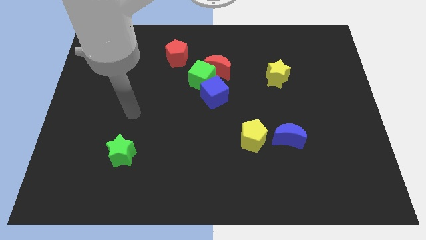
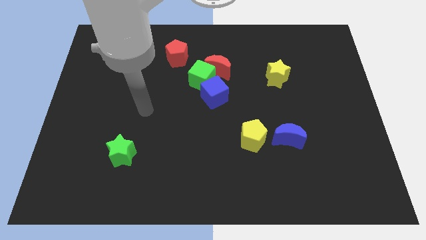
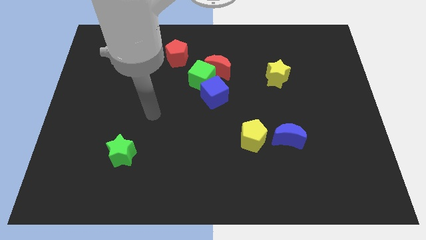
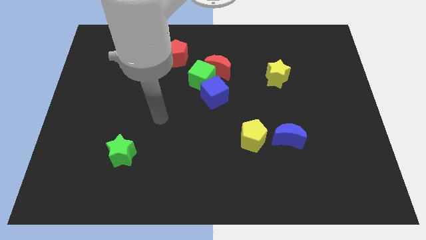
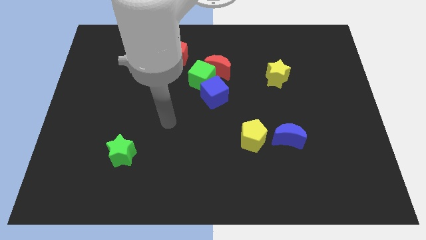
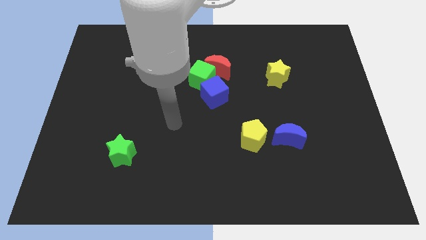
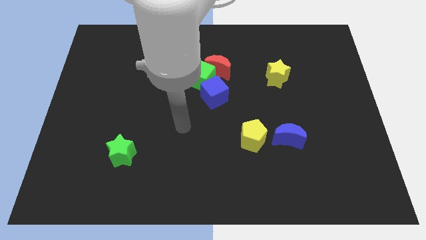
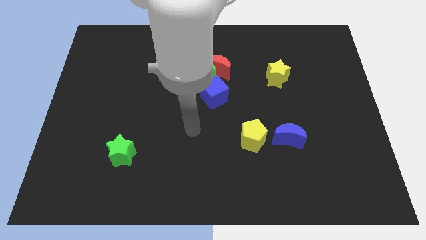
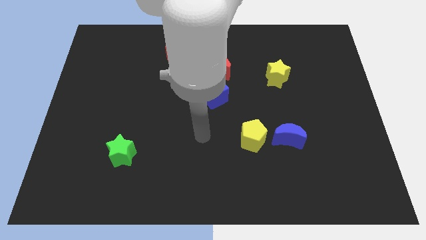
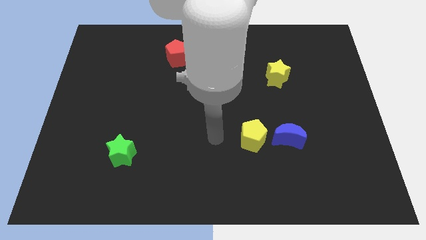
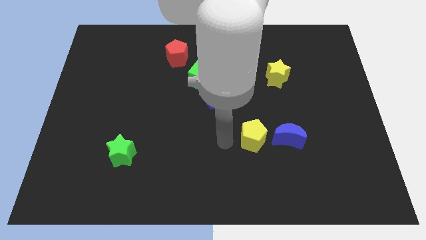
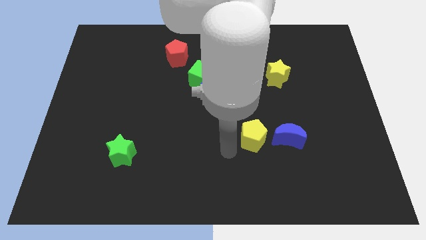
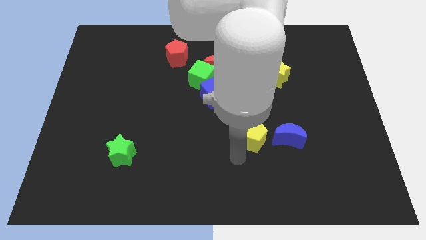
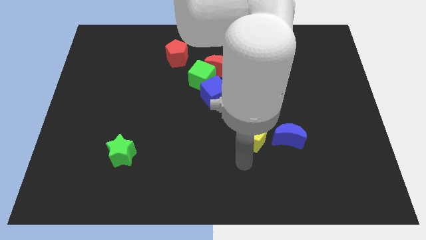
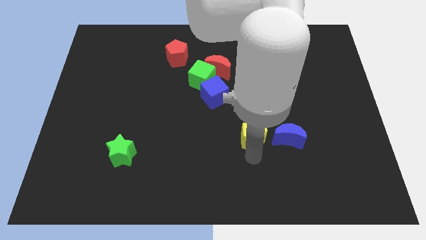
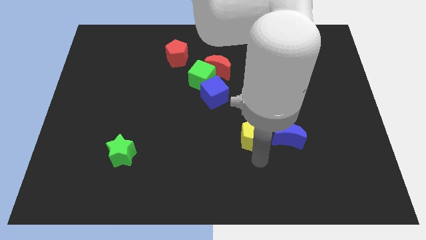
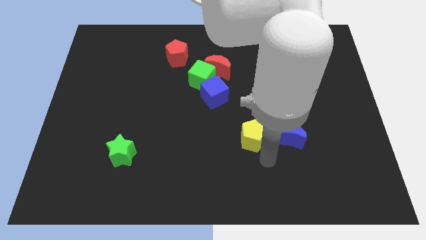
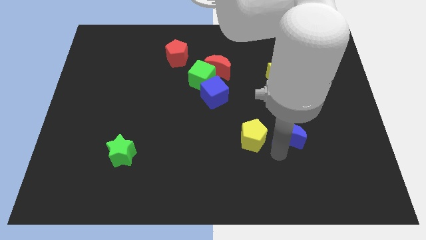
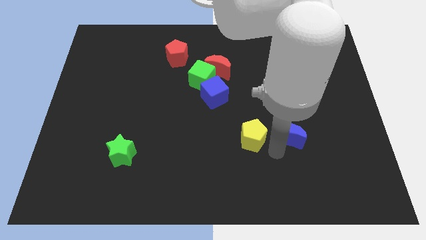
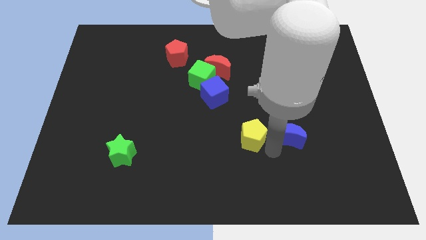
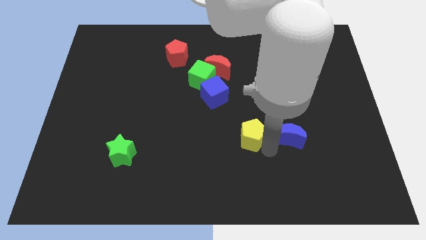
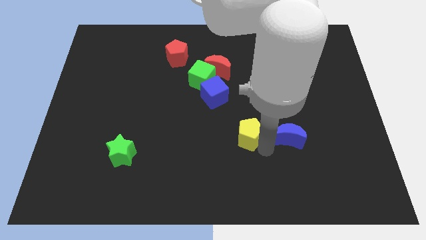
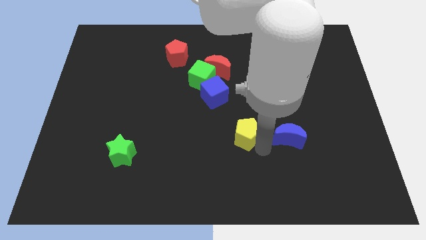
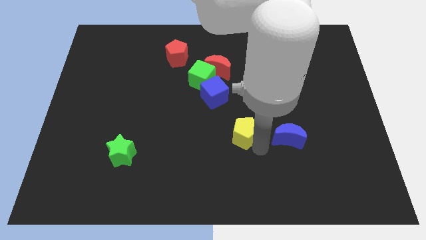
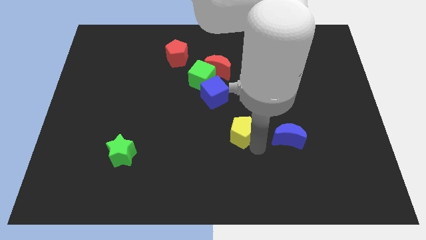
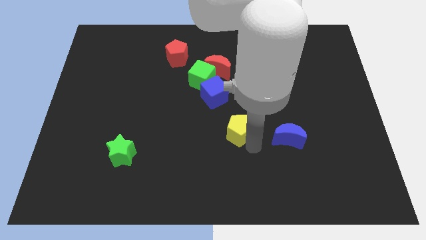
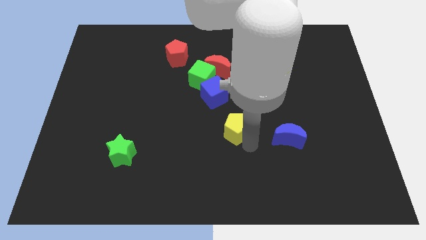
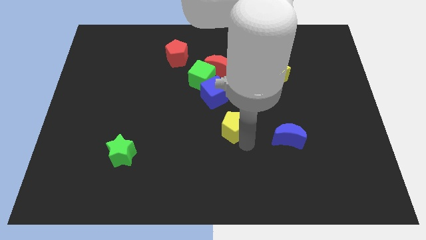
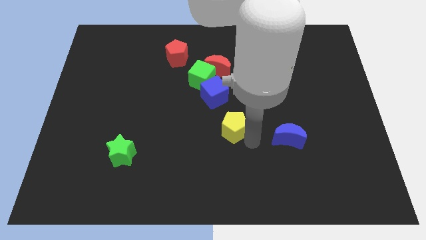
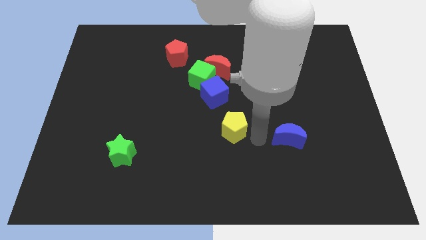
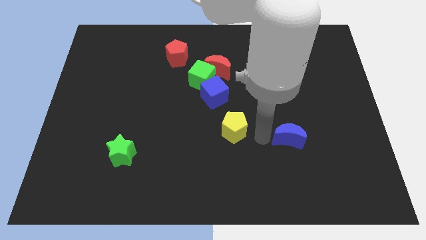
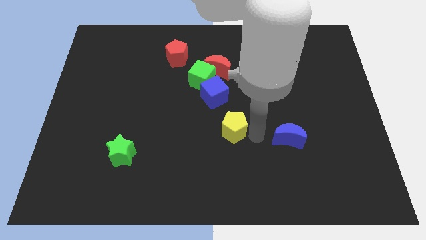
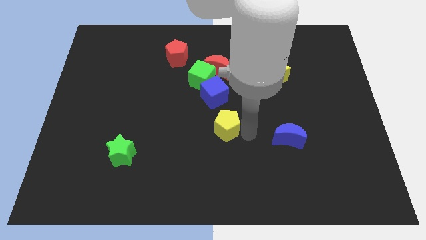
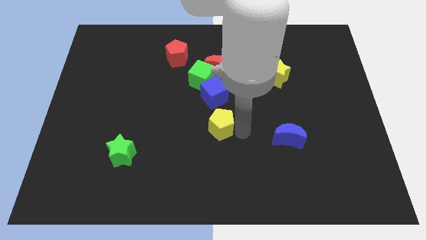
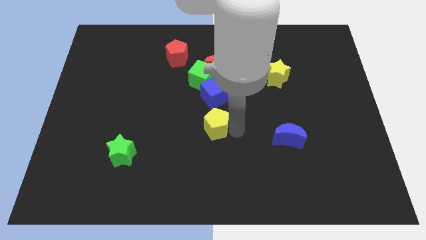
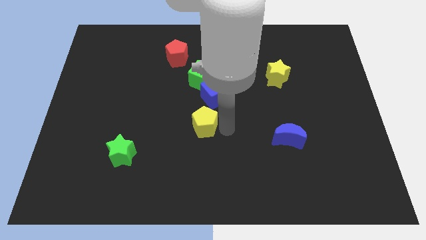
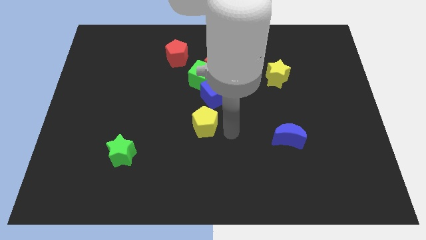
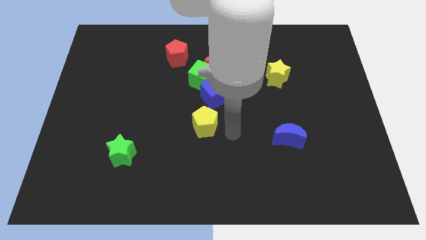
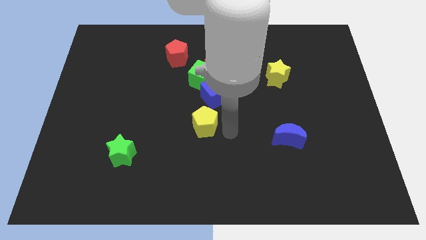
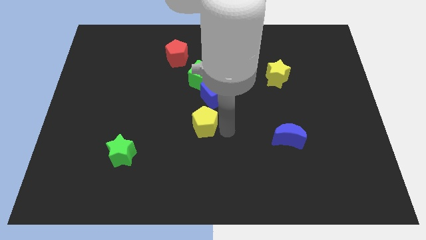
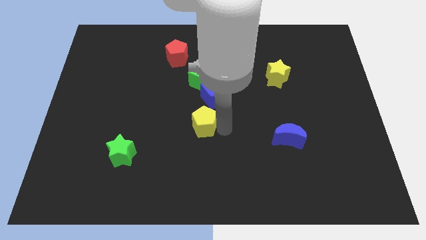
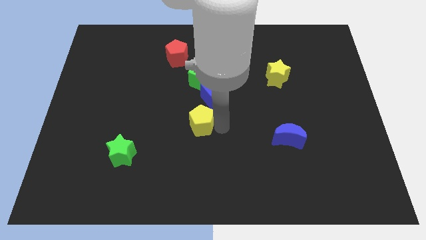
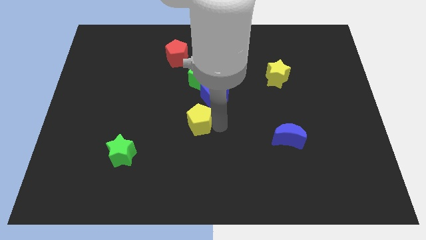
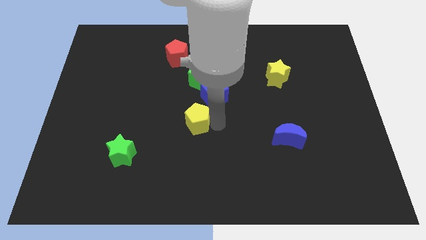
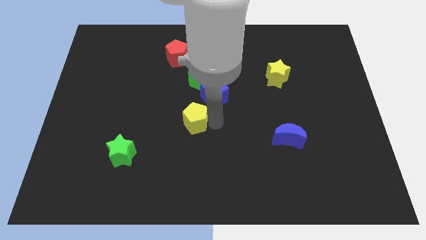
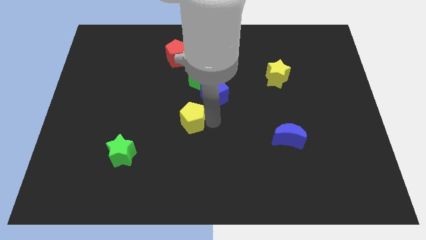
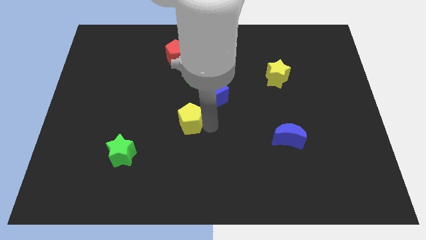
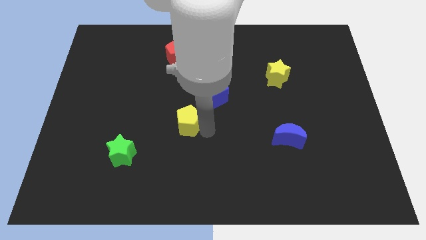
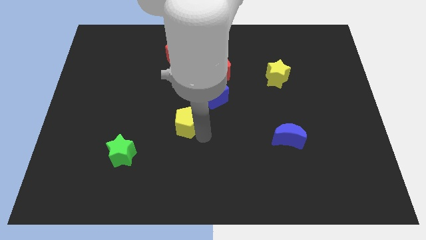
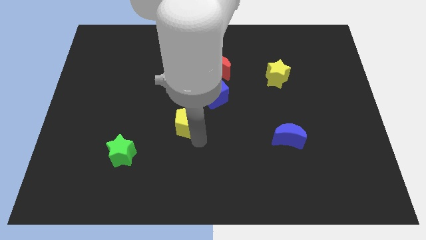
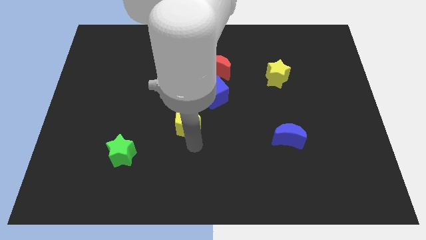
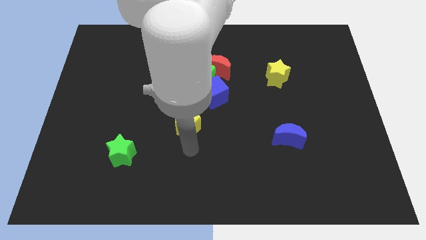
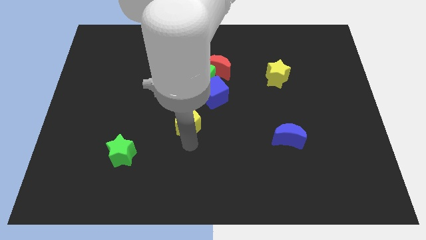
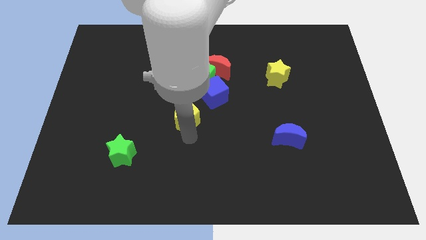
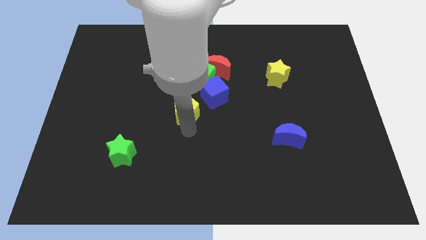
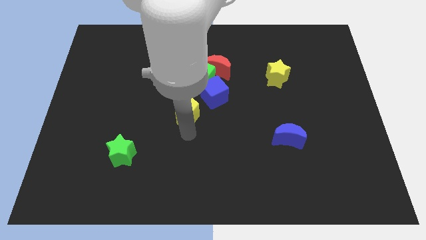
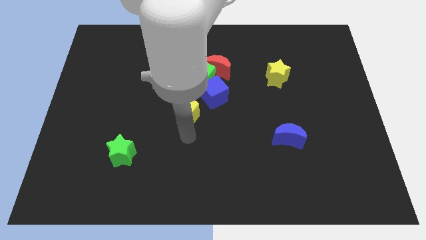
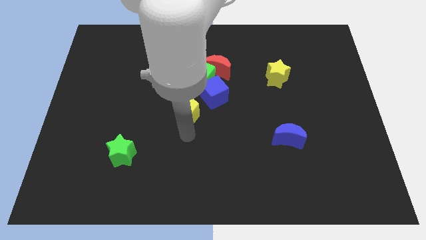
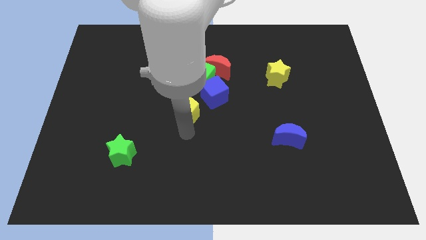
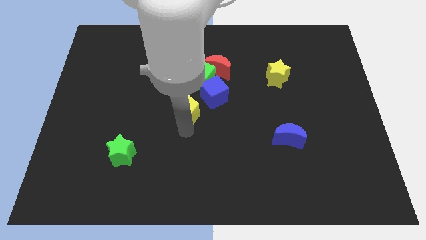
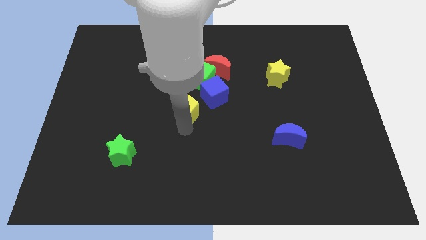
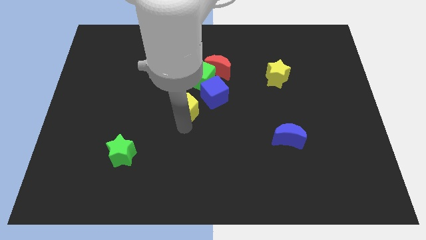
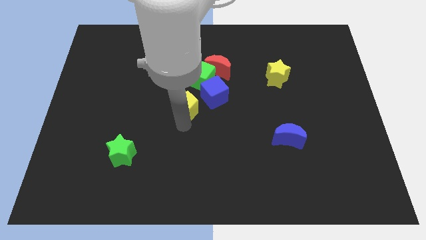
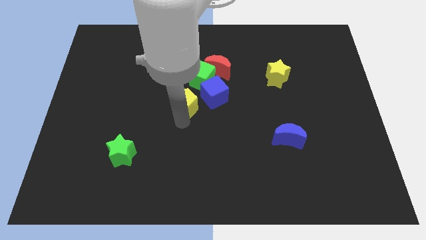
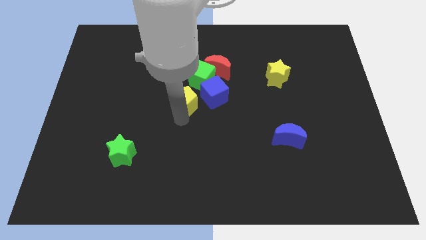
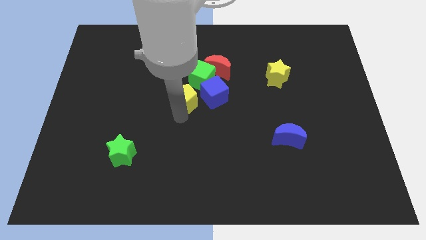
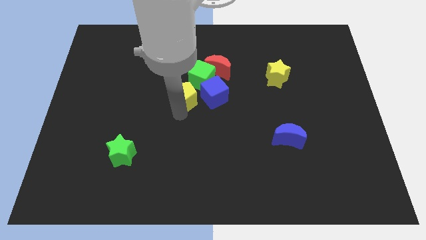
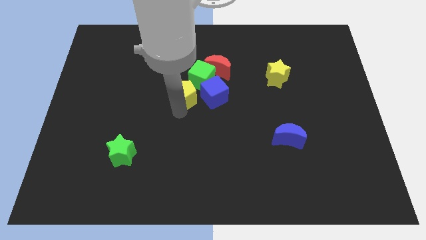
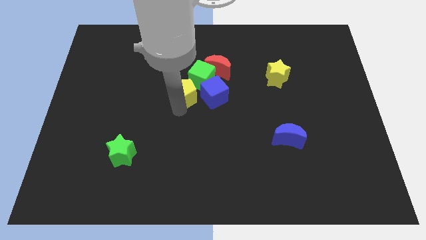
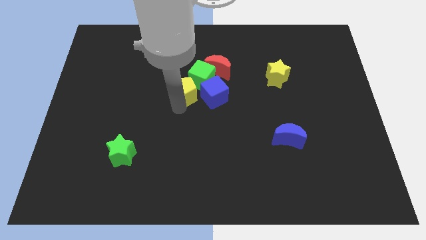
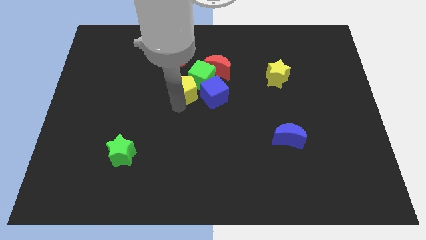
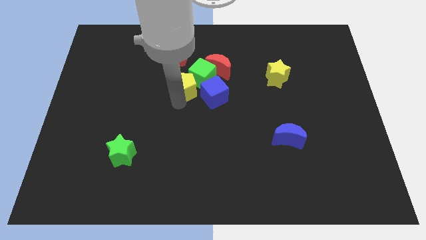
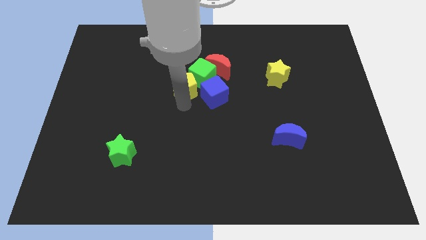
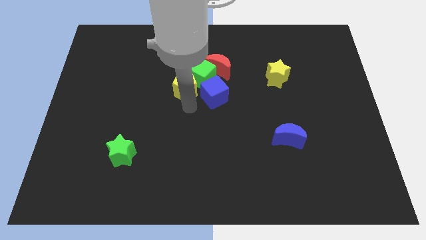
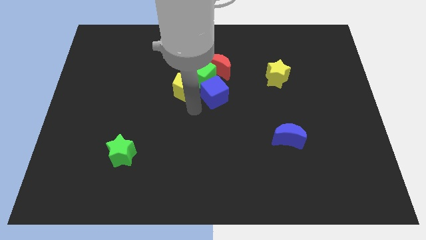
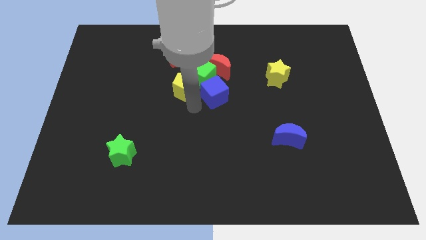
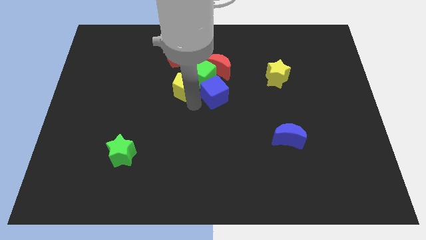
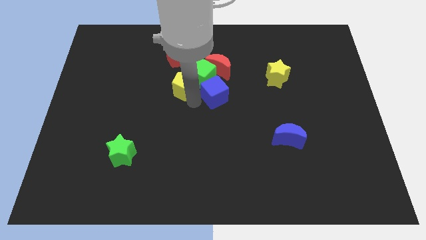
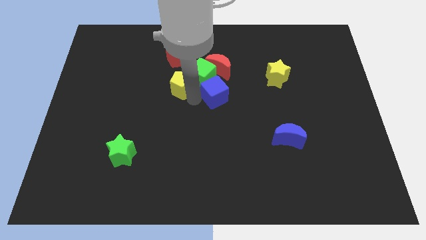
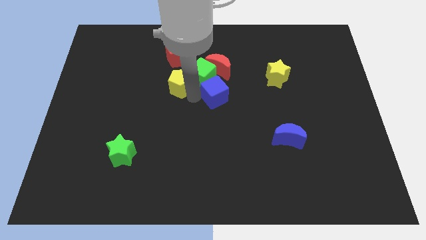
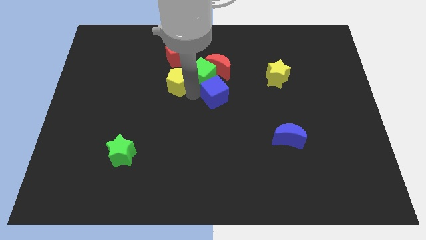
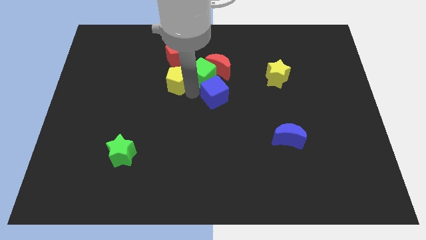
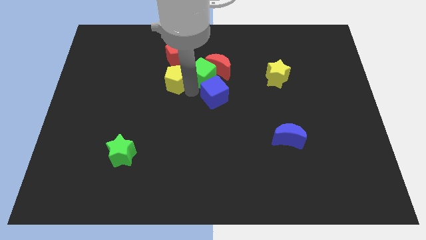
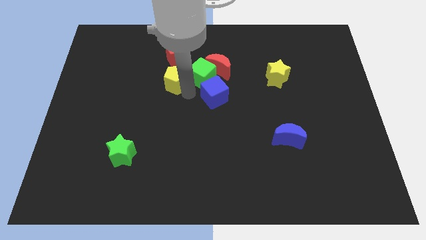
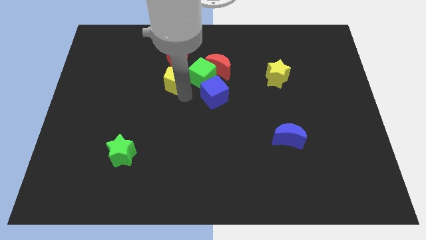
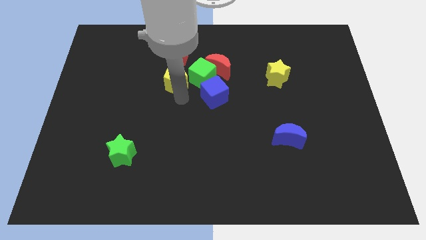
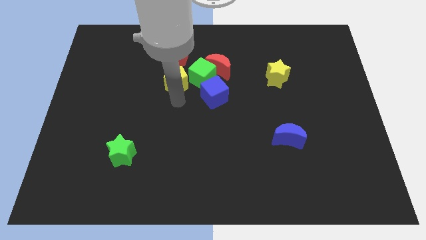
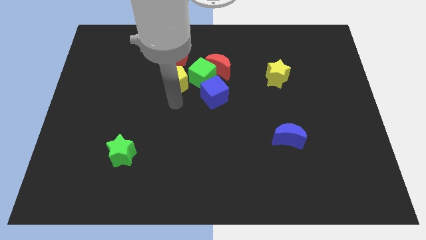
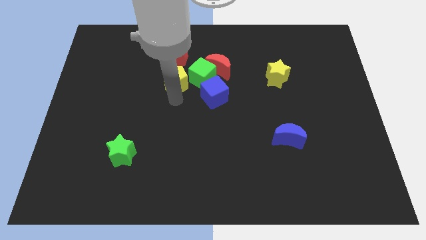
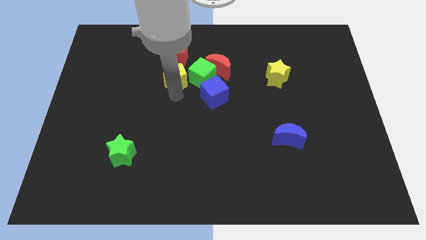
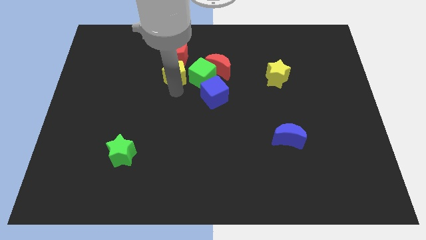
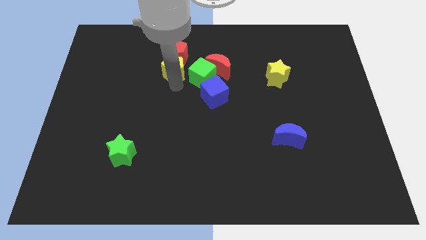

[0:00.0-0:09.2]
push the yellow pentagon close to the red pentagon
